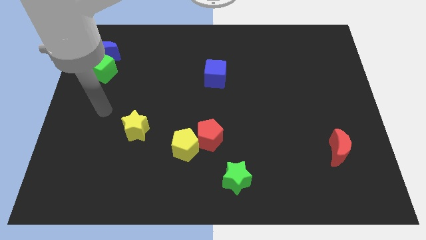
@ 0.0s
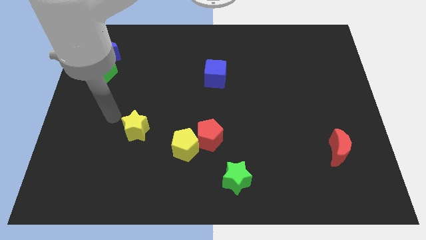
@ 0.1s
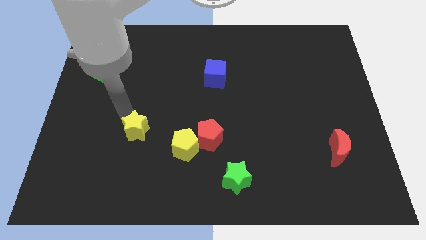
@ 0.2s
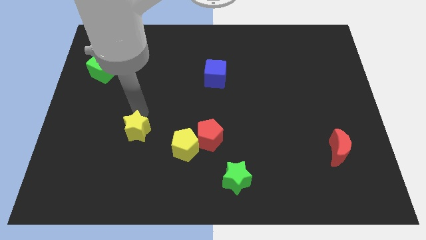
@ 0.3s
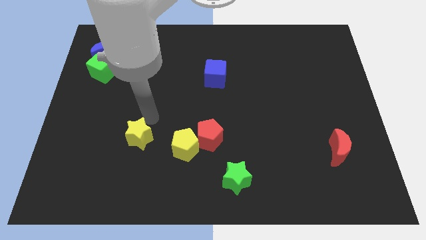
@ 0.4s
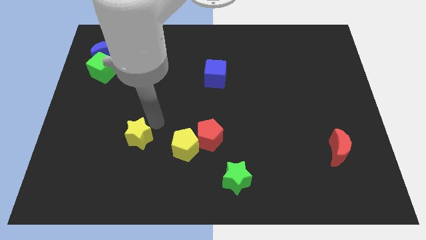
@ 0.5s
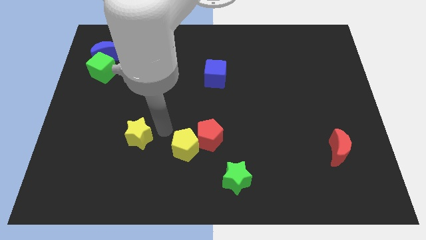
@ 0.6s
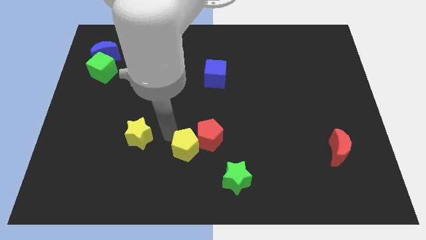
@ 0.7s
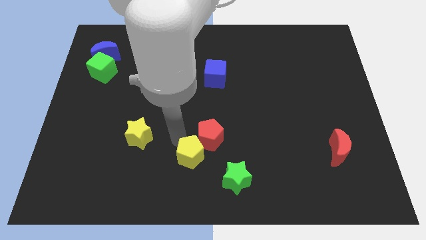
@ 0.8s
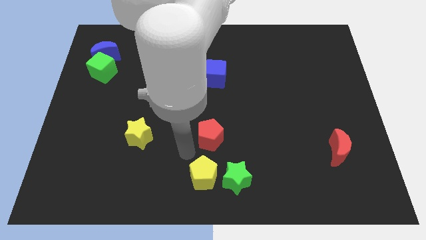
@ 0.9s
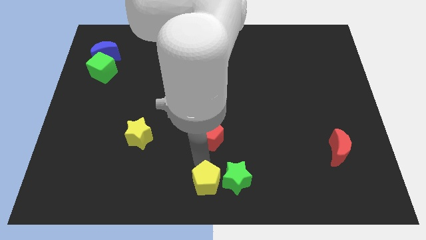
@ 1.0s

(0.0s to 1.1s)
pull the red pentagon apart from the yellow pentagon

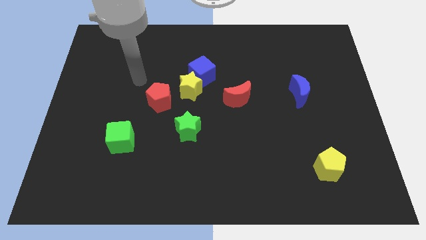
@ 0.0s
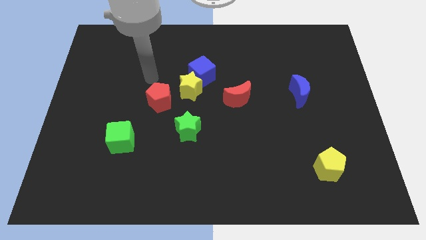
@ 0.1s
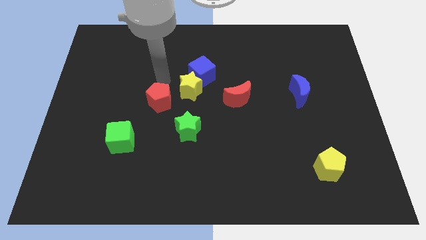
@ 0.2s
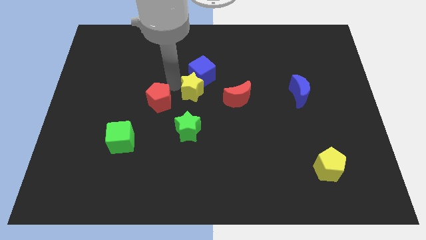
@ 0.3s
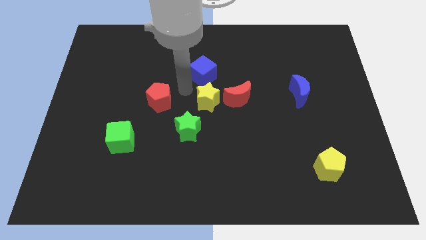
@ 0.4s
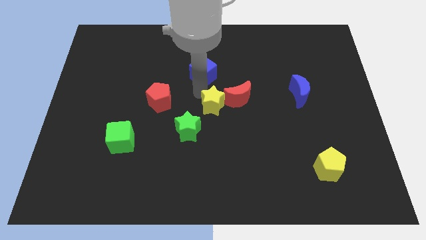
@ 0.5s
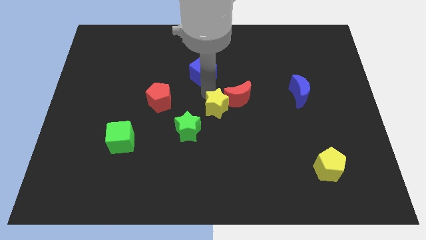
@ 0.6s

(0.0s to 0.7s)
separate the blue cube from the yellow star

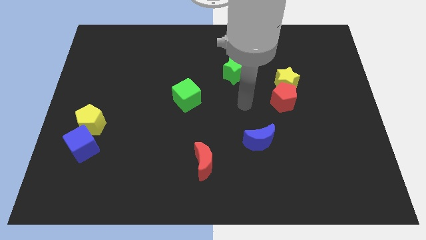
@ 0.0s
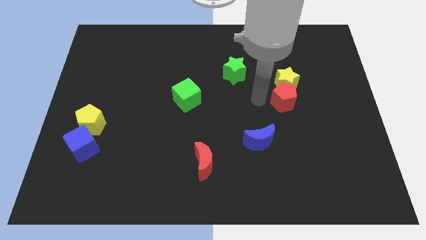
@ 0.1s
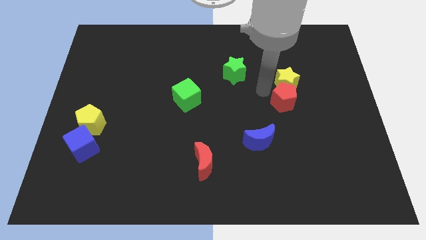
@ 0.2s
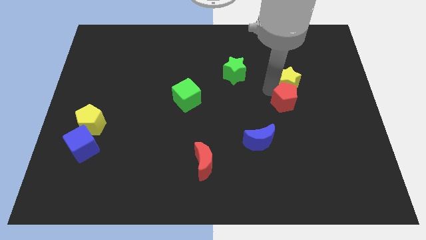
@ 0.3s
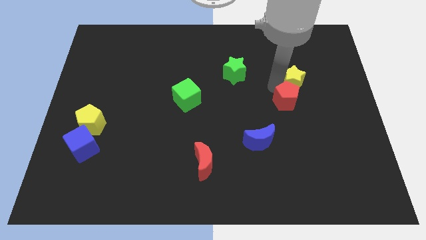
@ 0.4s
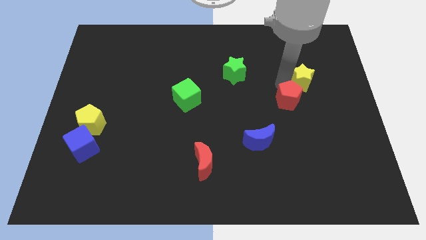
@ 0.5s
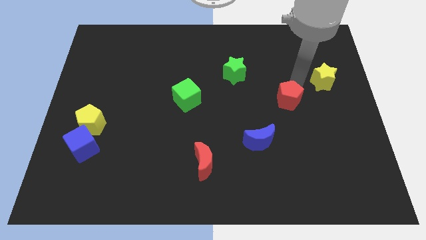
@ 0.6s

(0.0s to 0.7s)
move the red pentagon away from the yellow star

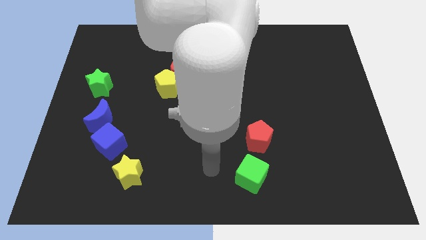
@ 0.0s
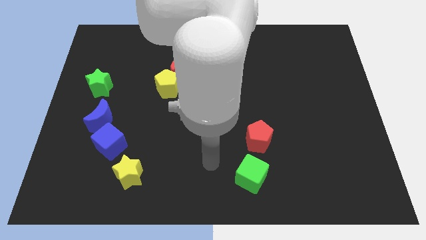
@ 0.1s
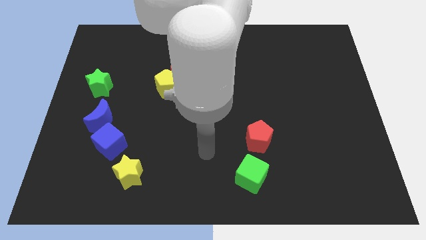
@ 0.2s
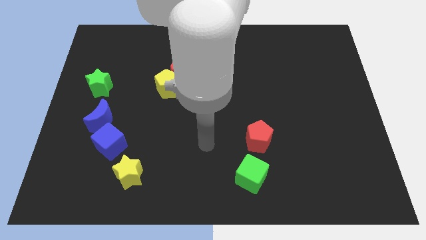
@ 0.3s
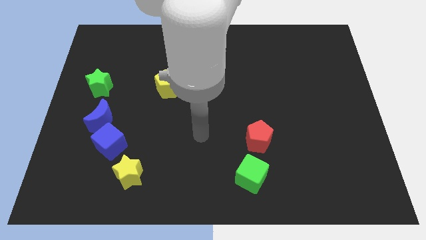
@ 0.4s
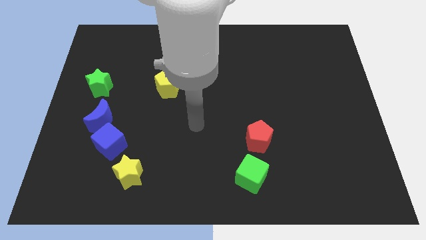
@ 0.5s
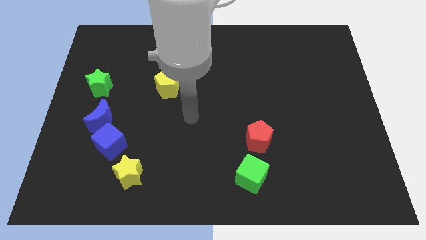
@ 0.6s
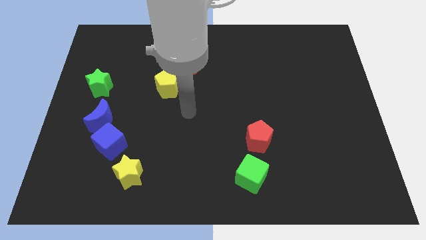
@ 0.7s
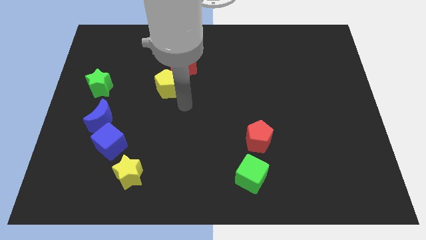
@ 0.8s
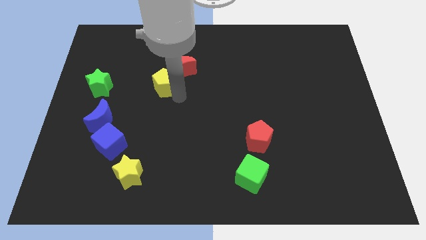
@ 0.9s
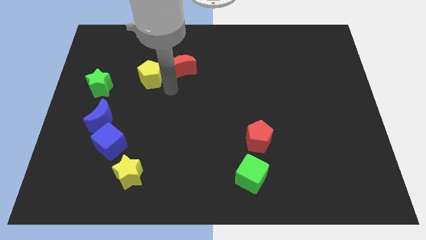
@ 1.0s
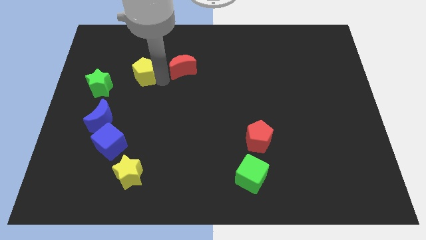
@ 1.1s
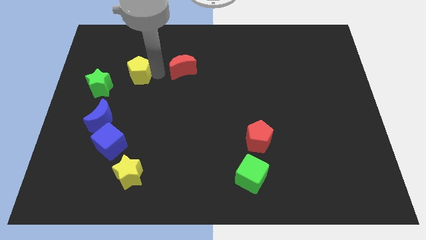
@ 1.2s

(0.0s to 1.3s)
pull the red moon apart from the yellow pentagon

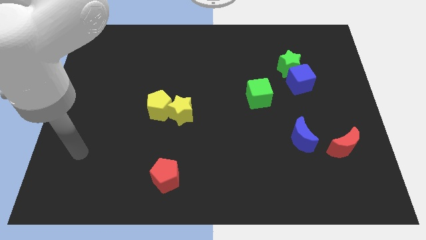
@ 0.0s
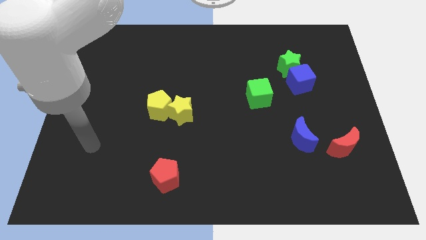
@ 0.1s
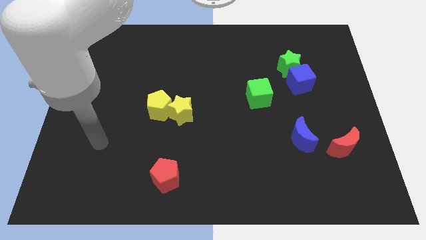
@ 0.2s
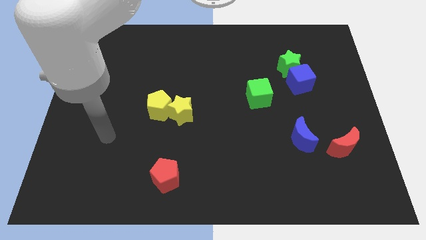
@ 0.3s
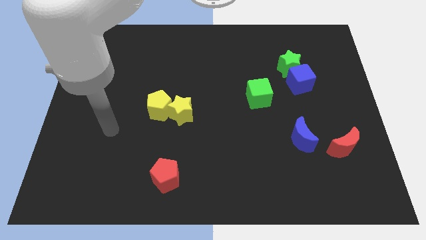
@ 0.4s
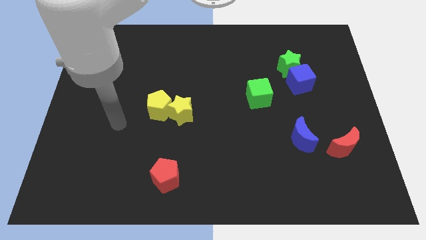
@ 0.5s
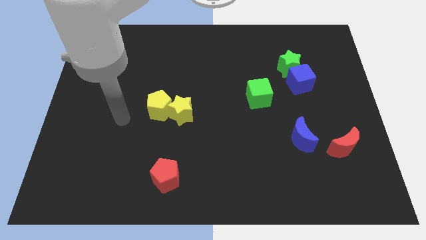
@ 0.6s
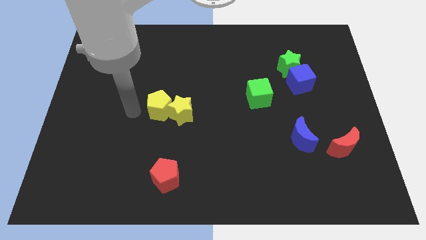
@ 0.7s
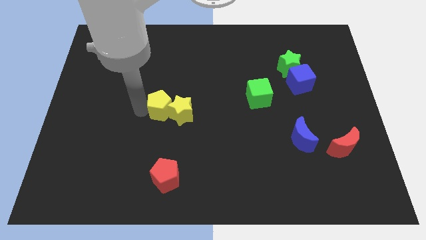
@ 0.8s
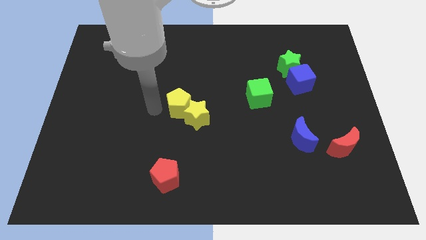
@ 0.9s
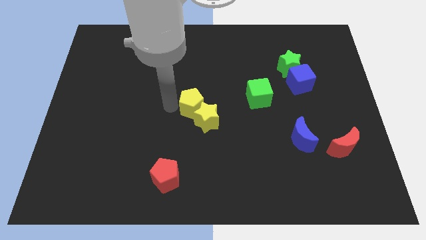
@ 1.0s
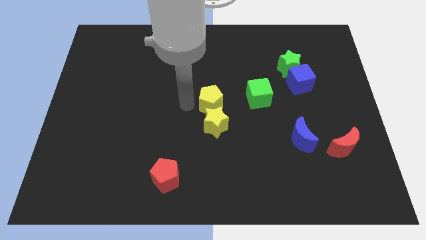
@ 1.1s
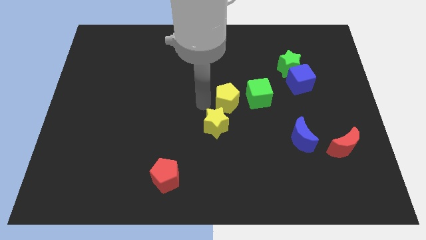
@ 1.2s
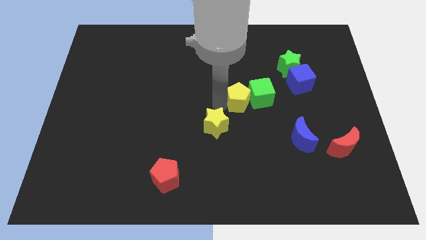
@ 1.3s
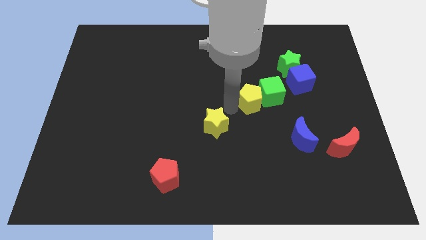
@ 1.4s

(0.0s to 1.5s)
separate the yellow star from the yellow pentagon

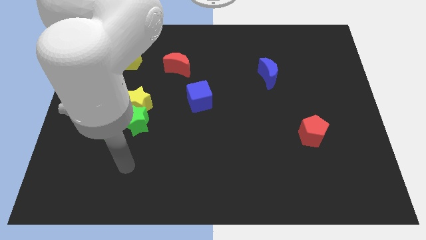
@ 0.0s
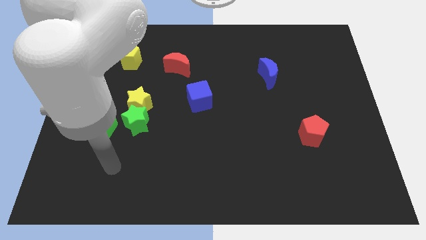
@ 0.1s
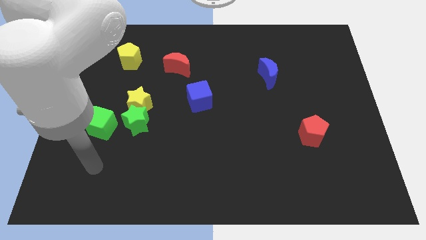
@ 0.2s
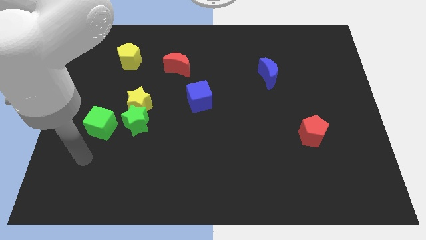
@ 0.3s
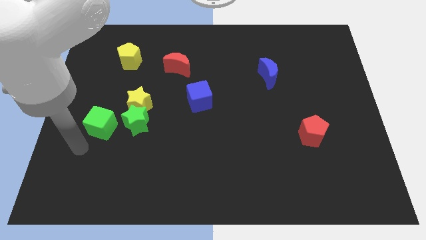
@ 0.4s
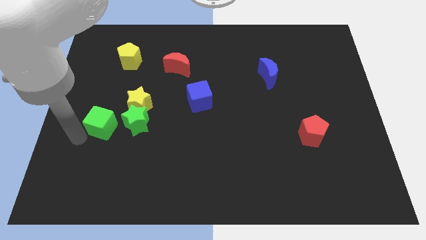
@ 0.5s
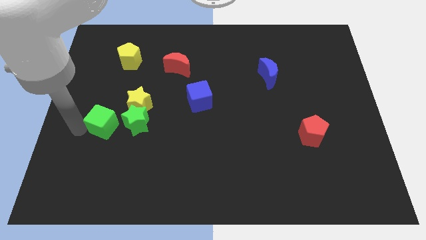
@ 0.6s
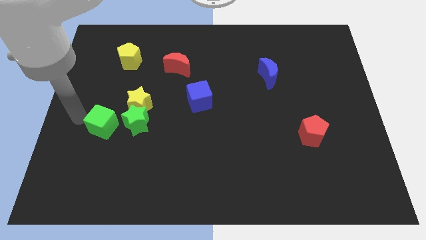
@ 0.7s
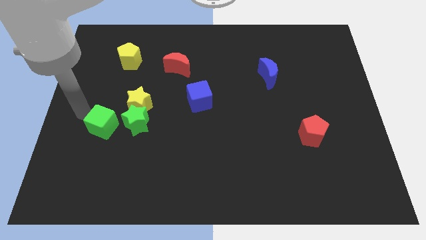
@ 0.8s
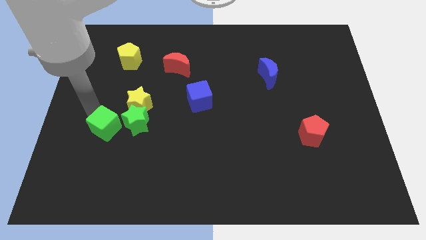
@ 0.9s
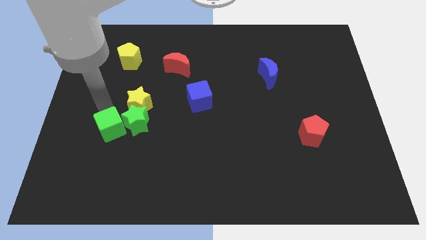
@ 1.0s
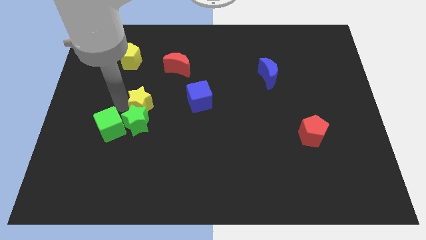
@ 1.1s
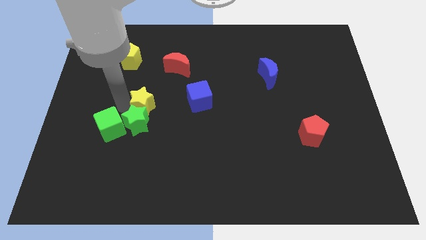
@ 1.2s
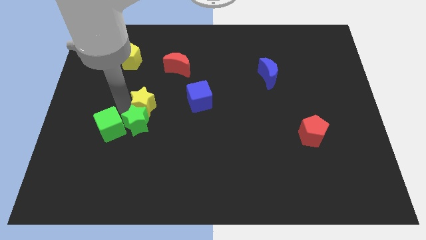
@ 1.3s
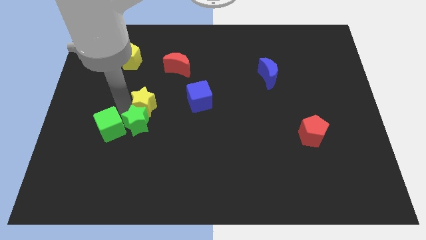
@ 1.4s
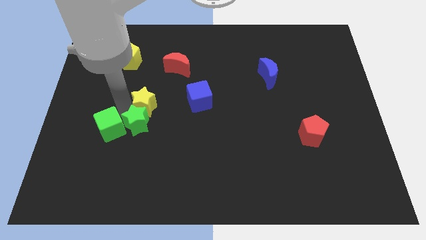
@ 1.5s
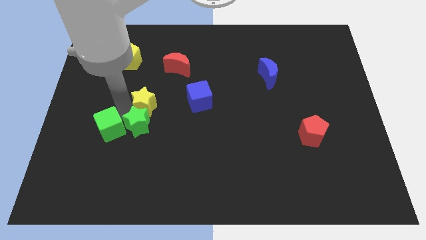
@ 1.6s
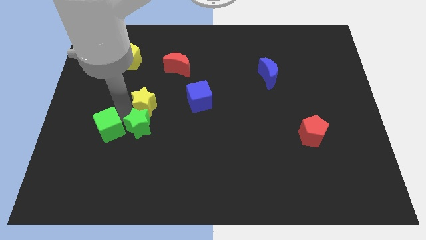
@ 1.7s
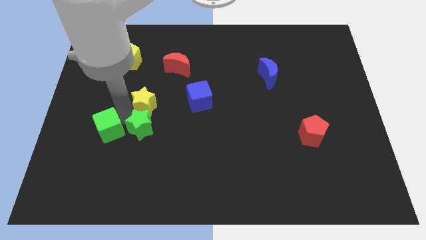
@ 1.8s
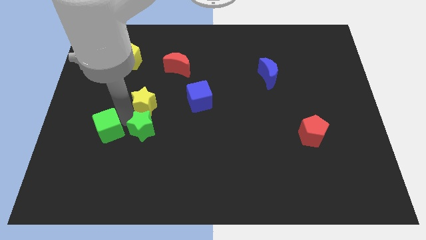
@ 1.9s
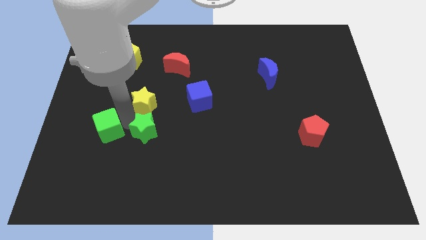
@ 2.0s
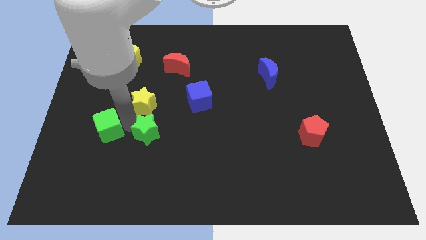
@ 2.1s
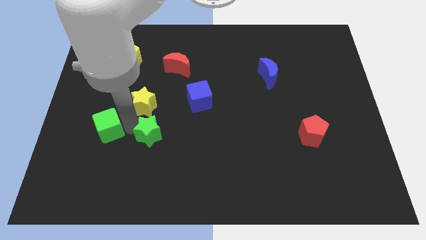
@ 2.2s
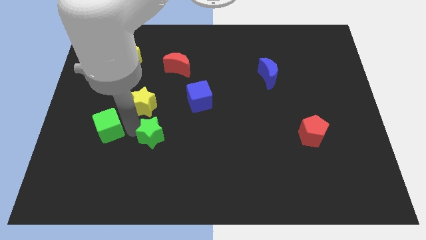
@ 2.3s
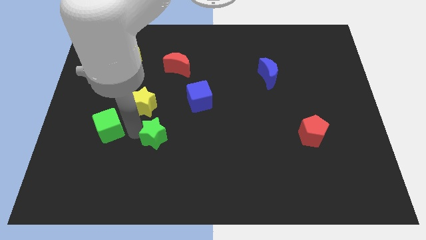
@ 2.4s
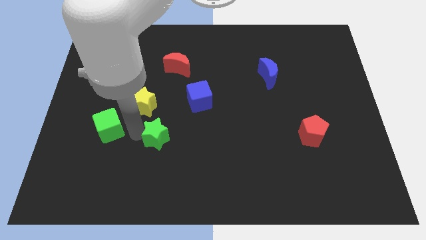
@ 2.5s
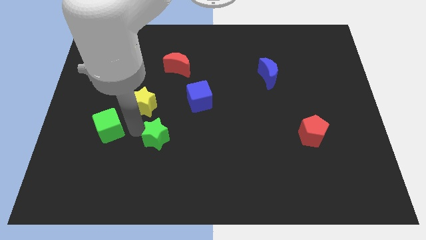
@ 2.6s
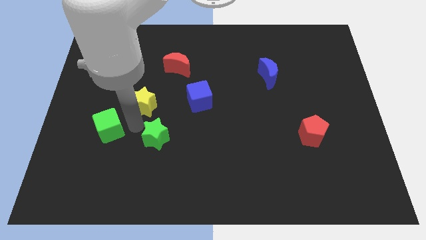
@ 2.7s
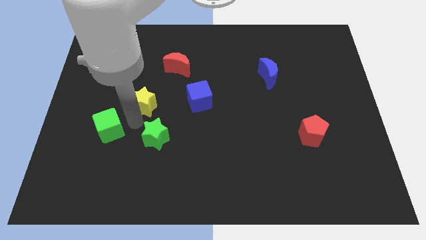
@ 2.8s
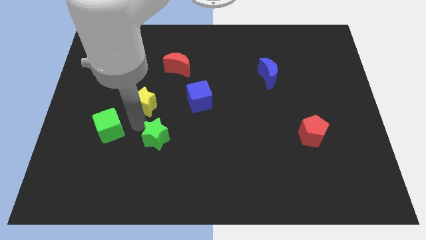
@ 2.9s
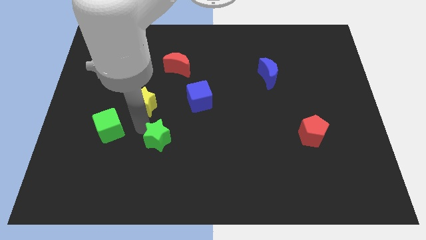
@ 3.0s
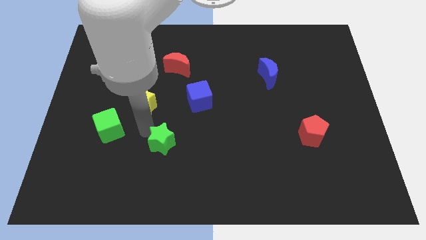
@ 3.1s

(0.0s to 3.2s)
separate the green star from the yellow star and green cube

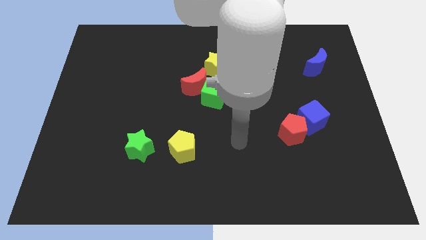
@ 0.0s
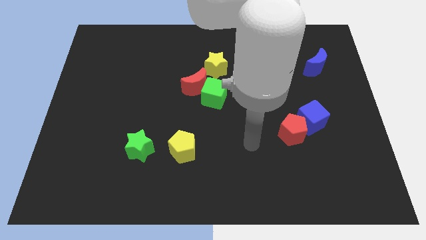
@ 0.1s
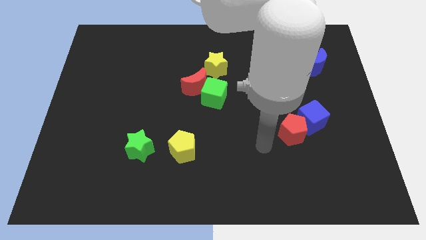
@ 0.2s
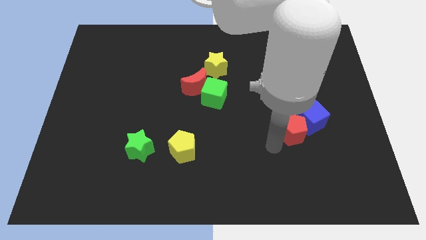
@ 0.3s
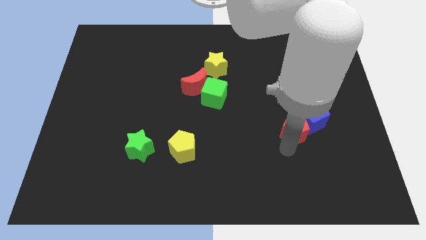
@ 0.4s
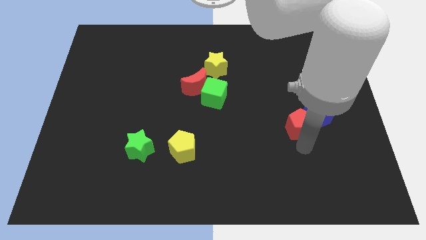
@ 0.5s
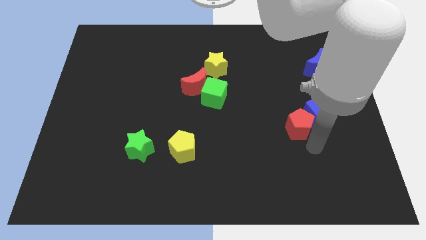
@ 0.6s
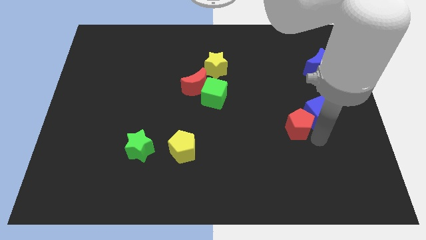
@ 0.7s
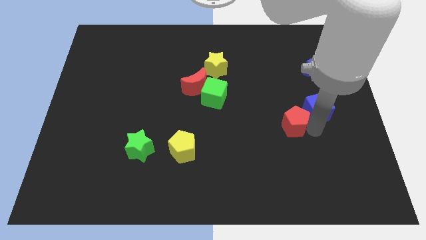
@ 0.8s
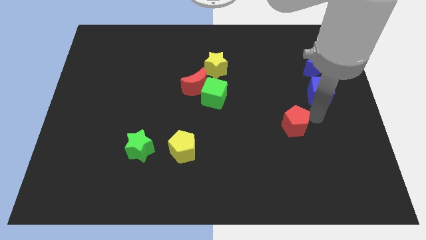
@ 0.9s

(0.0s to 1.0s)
separate the red pentagon from the blue cube
